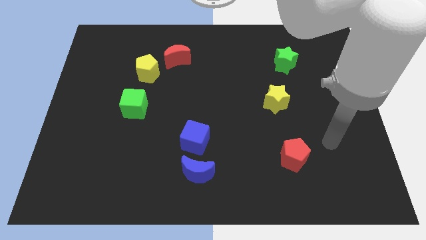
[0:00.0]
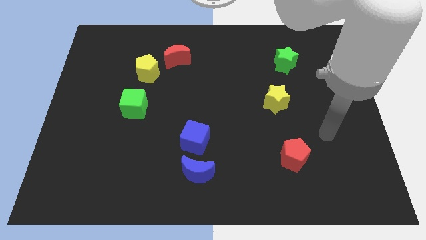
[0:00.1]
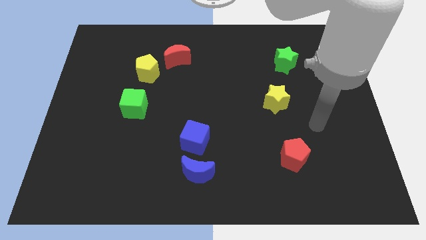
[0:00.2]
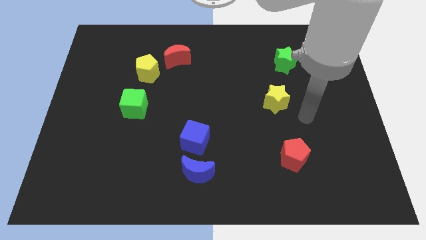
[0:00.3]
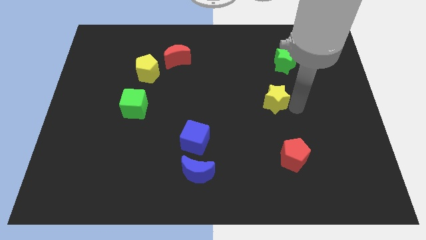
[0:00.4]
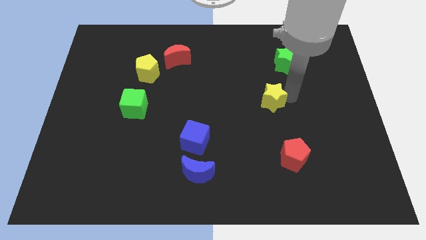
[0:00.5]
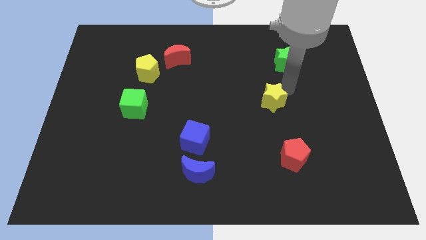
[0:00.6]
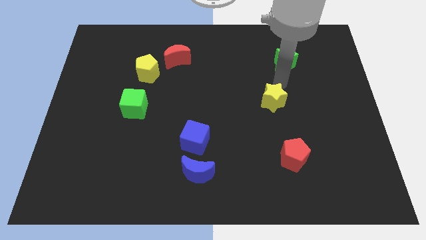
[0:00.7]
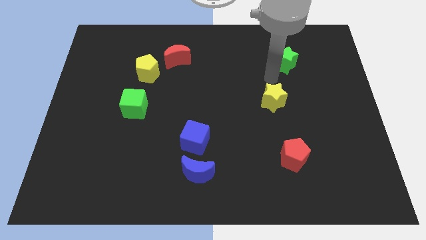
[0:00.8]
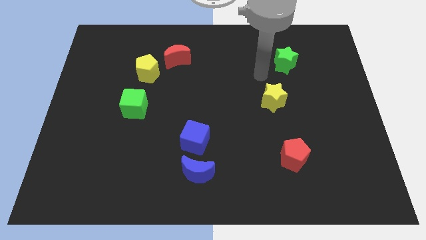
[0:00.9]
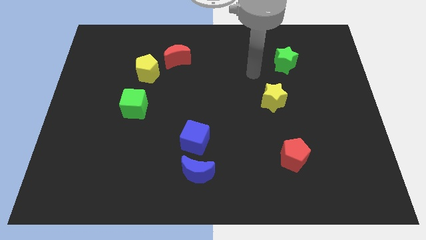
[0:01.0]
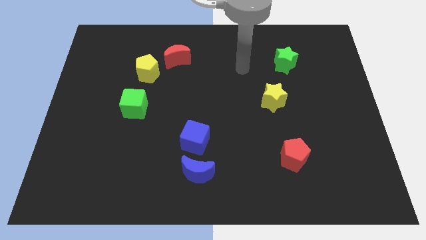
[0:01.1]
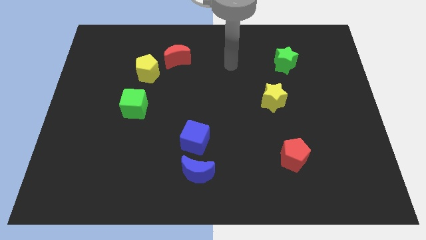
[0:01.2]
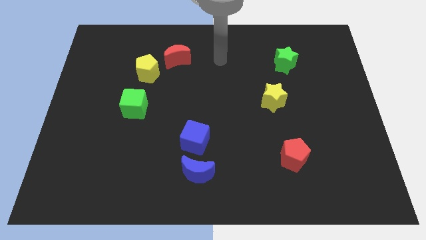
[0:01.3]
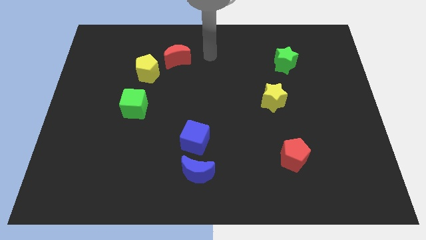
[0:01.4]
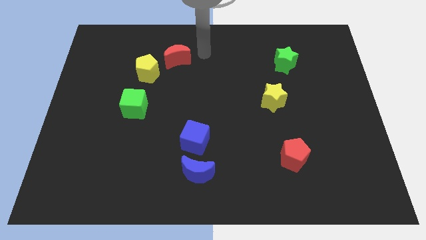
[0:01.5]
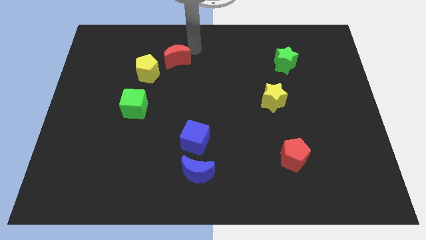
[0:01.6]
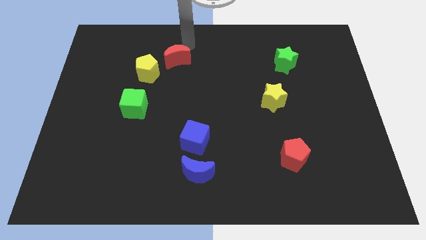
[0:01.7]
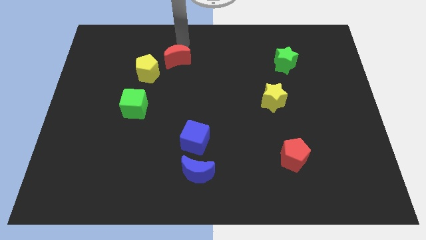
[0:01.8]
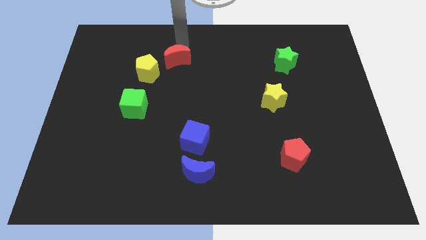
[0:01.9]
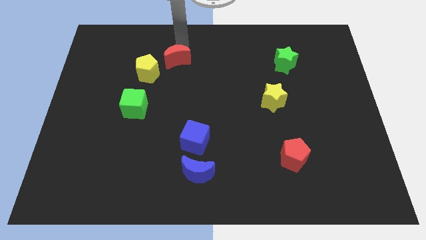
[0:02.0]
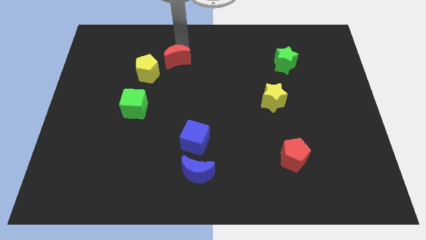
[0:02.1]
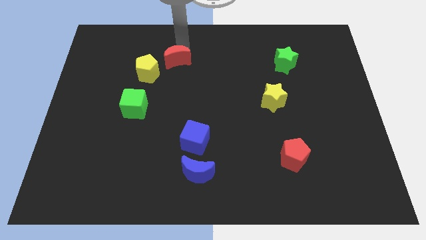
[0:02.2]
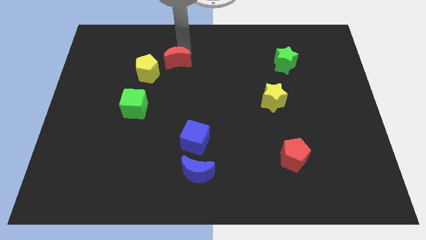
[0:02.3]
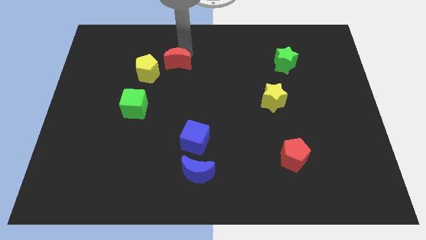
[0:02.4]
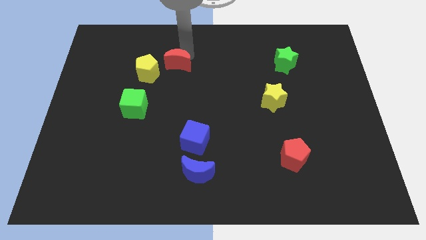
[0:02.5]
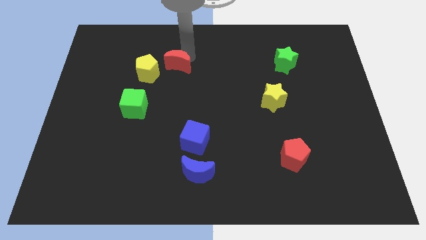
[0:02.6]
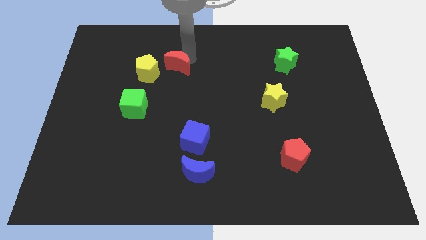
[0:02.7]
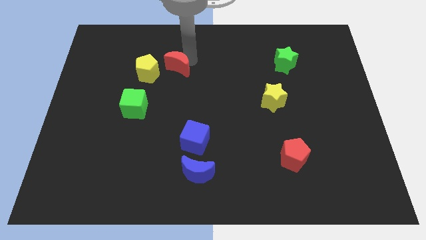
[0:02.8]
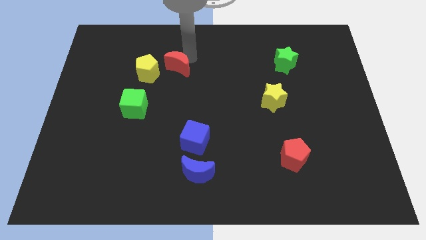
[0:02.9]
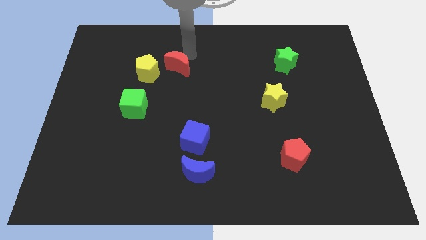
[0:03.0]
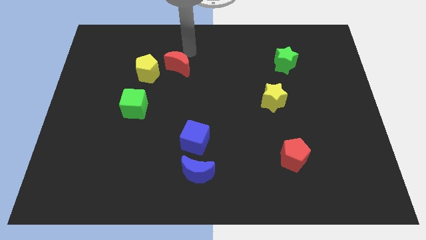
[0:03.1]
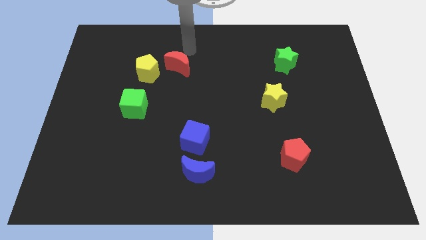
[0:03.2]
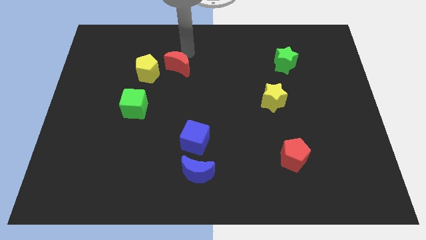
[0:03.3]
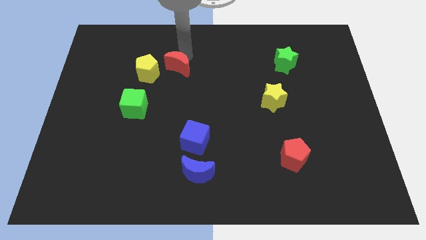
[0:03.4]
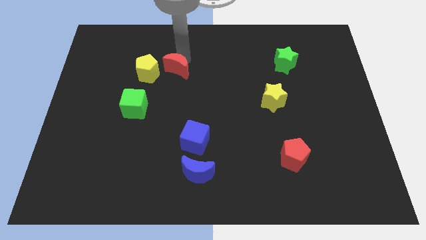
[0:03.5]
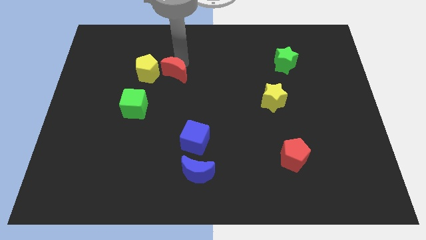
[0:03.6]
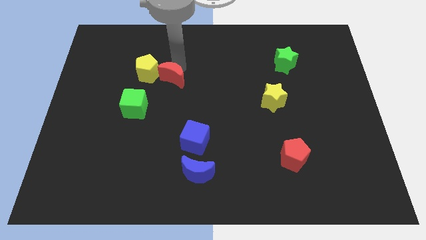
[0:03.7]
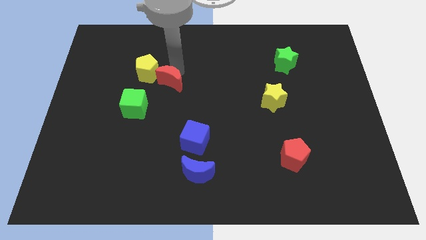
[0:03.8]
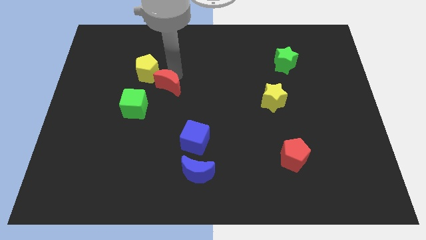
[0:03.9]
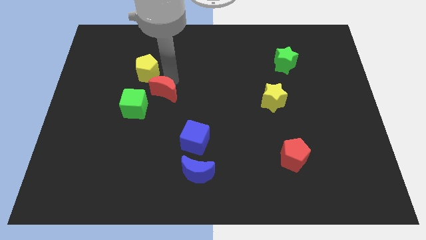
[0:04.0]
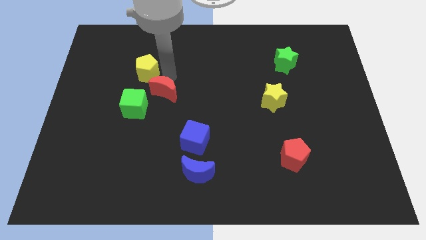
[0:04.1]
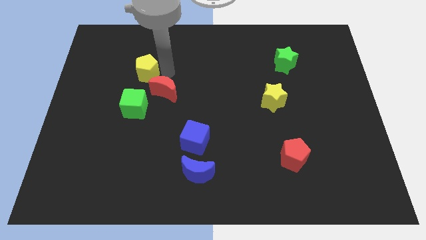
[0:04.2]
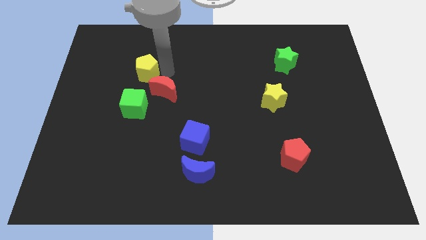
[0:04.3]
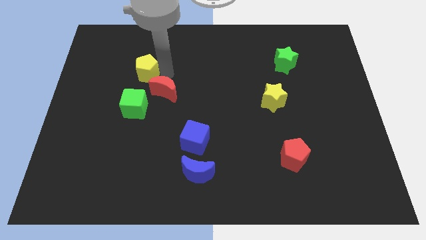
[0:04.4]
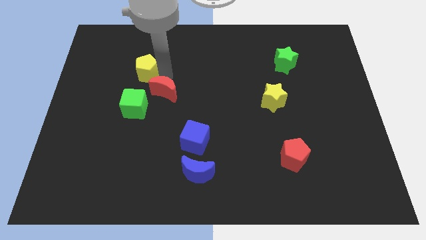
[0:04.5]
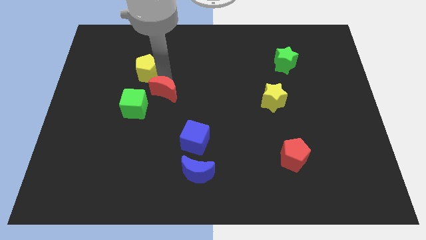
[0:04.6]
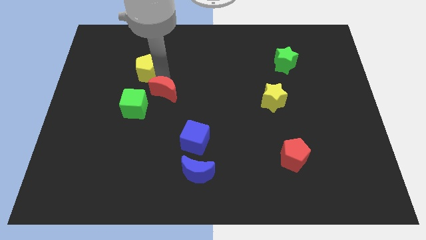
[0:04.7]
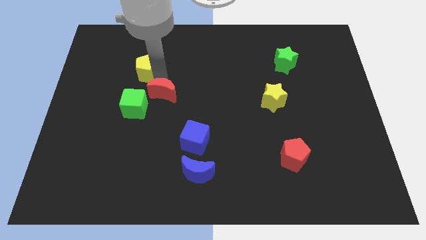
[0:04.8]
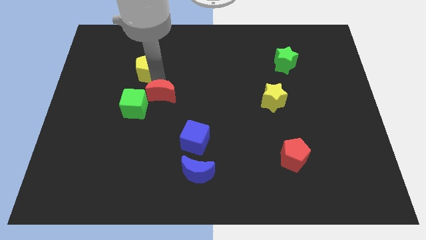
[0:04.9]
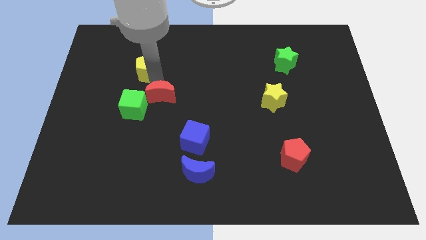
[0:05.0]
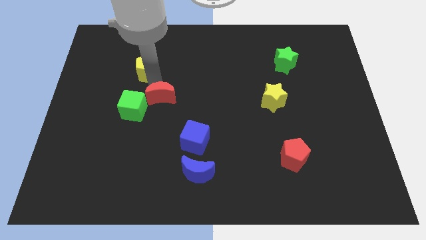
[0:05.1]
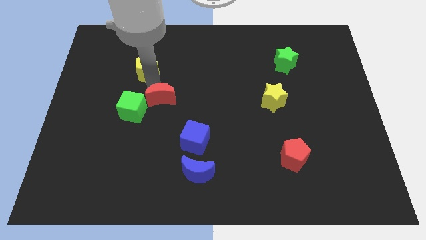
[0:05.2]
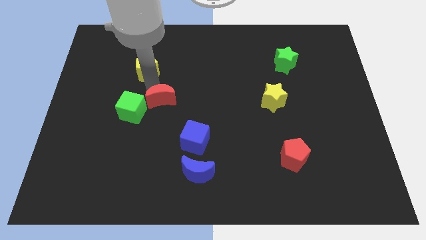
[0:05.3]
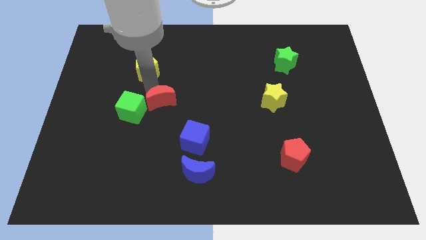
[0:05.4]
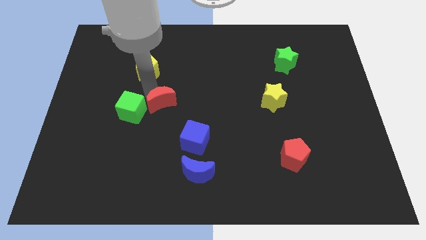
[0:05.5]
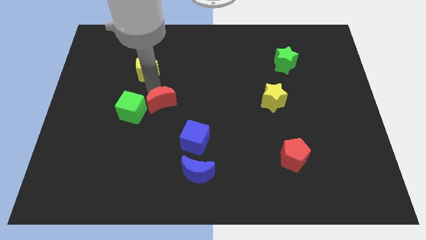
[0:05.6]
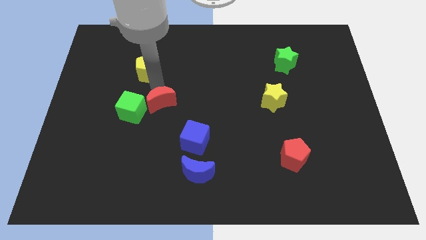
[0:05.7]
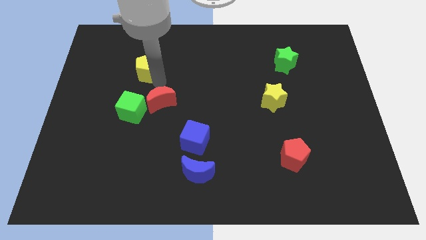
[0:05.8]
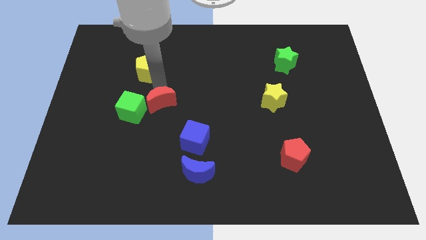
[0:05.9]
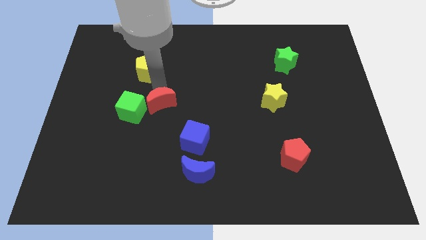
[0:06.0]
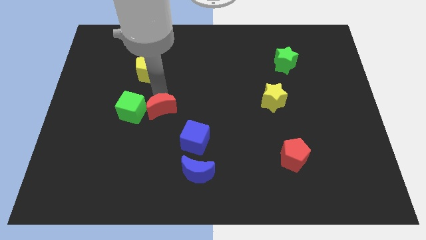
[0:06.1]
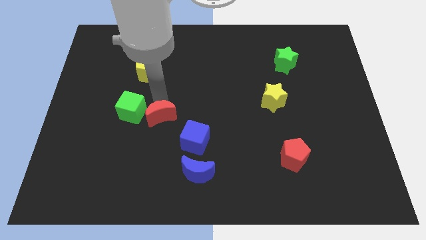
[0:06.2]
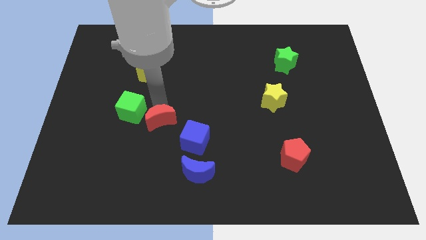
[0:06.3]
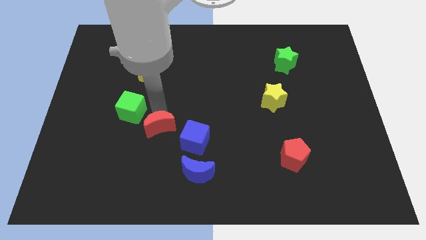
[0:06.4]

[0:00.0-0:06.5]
move the red moon downwards

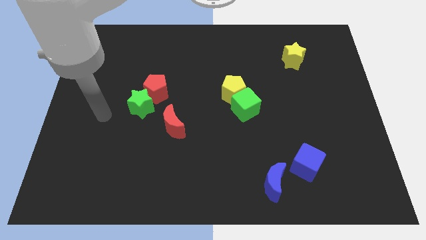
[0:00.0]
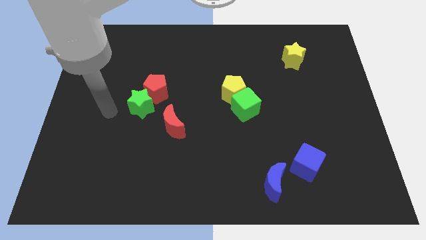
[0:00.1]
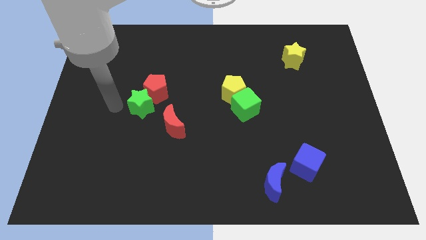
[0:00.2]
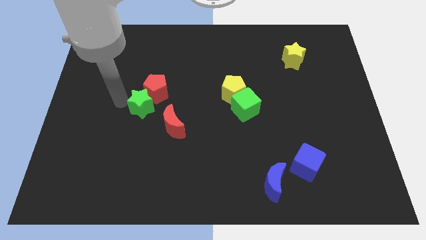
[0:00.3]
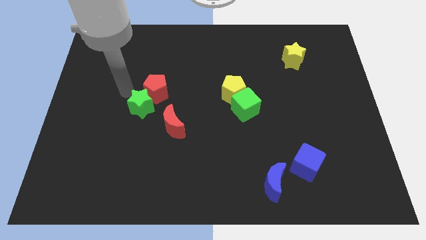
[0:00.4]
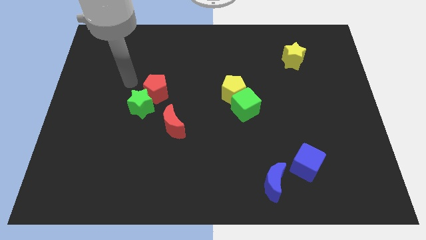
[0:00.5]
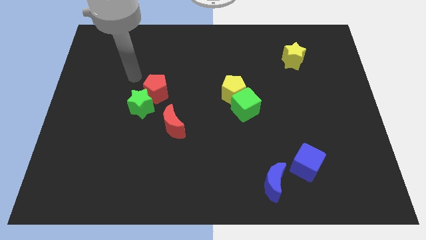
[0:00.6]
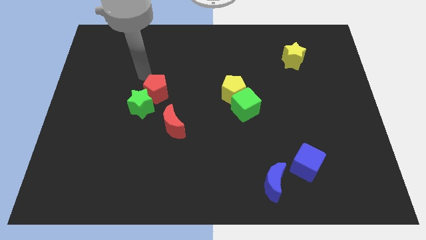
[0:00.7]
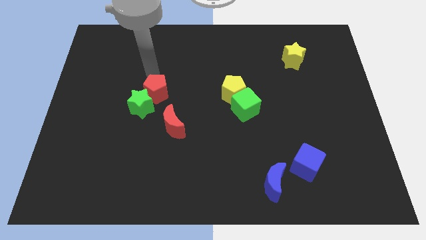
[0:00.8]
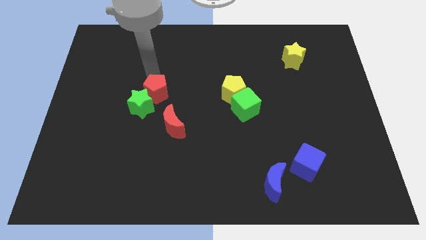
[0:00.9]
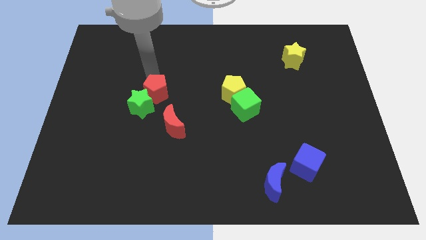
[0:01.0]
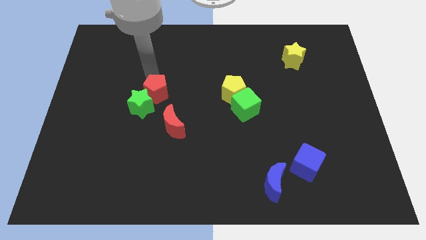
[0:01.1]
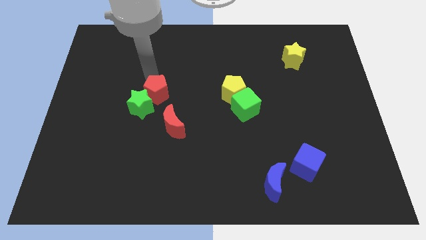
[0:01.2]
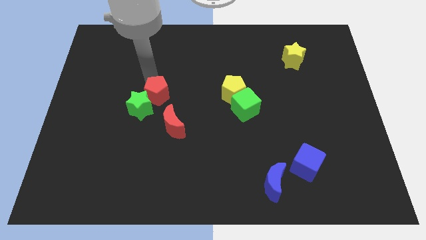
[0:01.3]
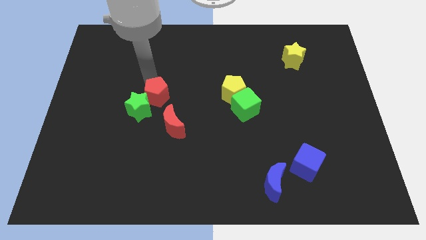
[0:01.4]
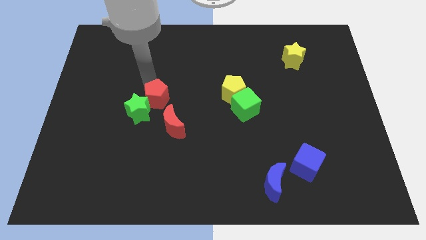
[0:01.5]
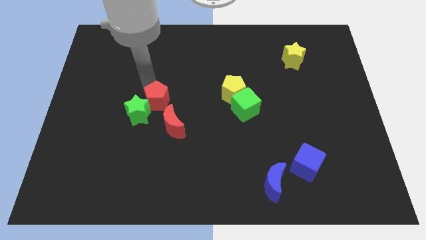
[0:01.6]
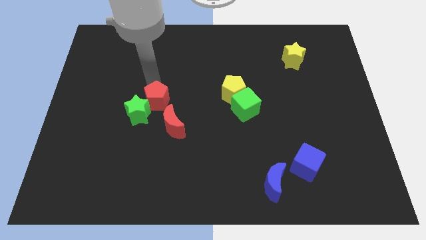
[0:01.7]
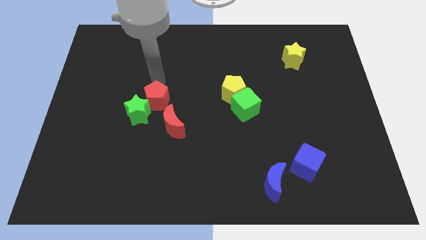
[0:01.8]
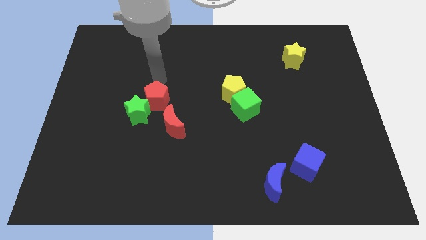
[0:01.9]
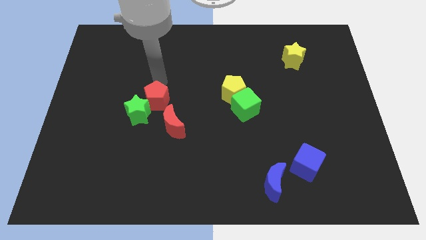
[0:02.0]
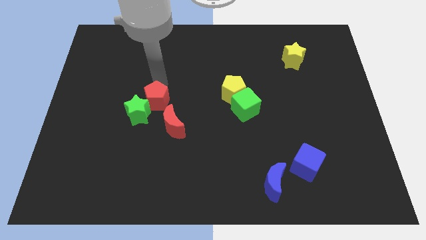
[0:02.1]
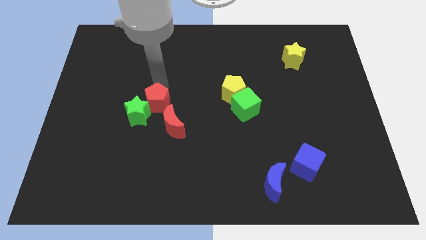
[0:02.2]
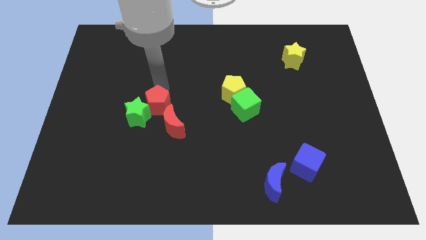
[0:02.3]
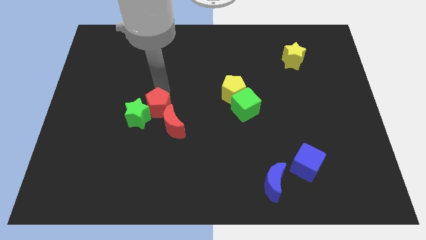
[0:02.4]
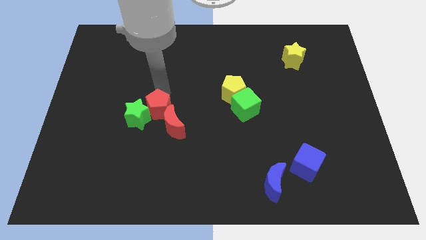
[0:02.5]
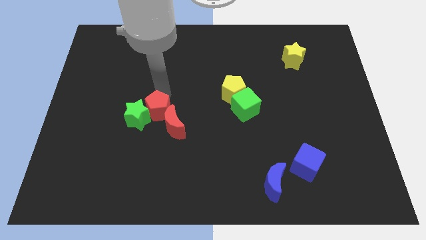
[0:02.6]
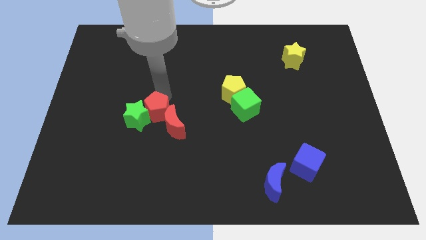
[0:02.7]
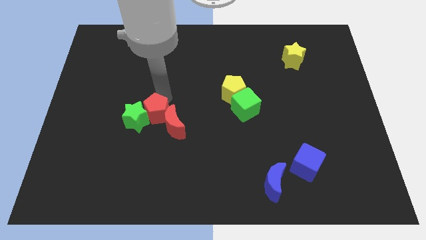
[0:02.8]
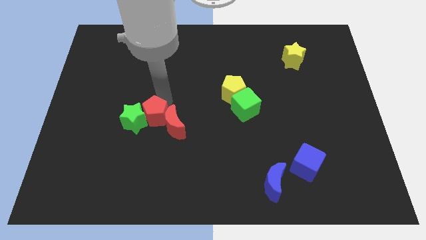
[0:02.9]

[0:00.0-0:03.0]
slide the red pentagon a little down
